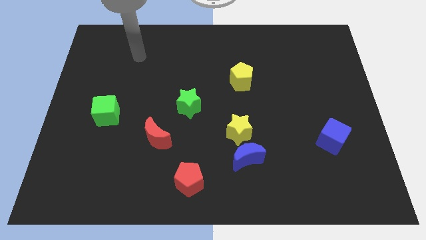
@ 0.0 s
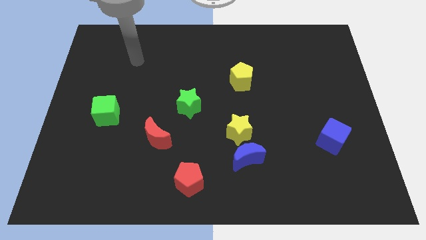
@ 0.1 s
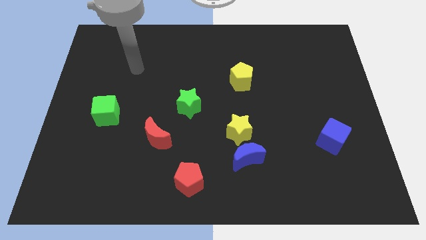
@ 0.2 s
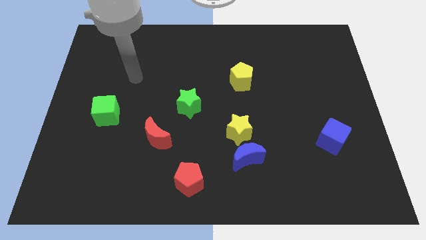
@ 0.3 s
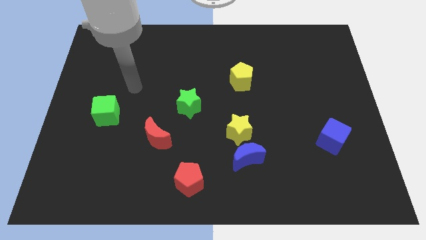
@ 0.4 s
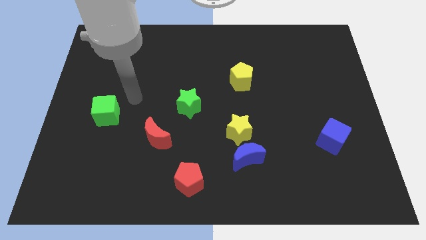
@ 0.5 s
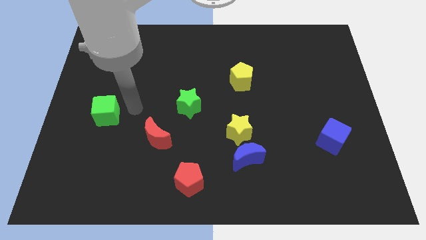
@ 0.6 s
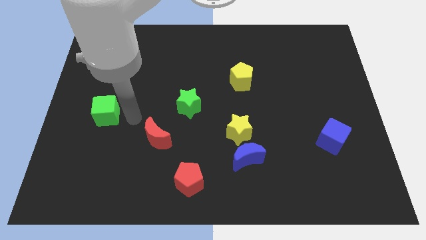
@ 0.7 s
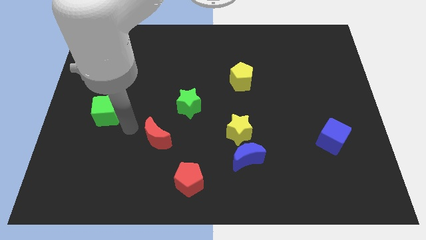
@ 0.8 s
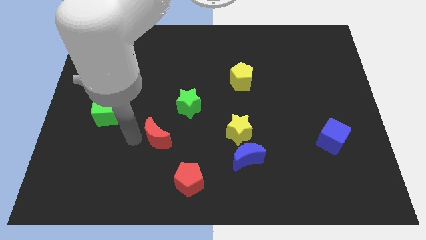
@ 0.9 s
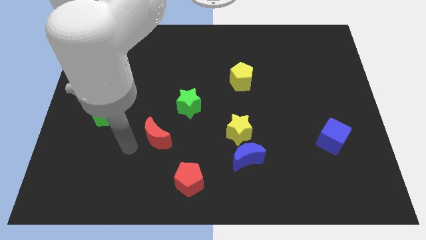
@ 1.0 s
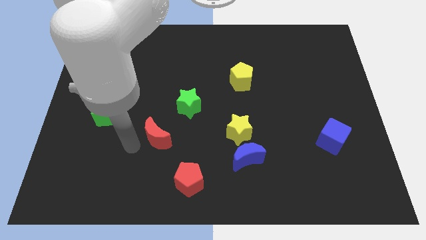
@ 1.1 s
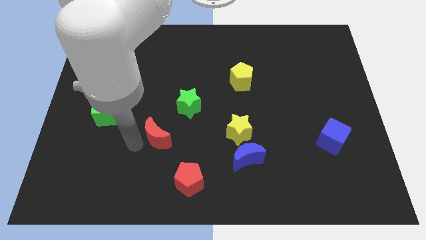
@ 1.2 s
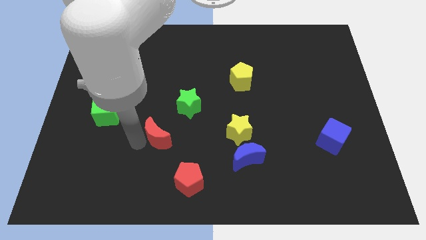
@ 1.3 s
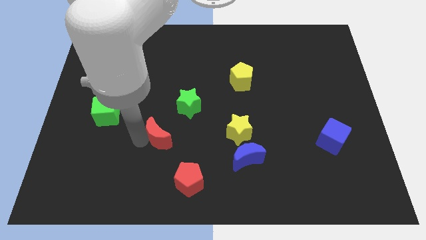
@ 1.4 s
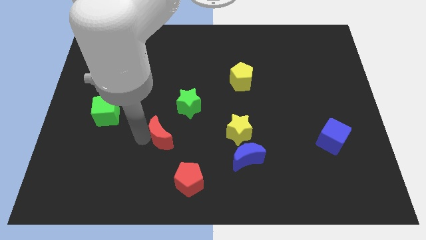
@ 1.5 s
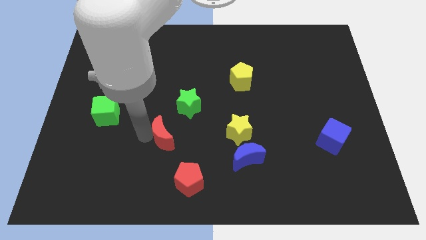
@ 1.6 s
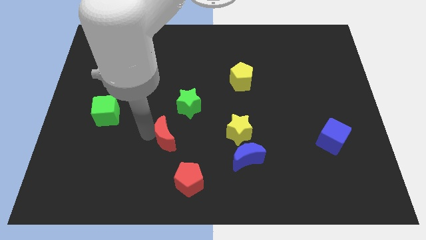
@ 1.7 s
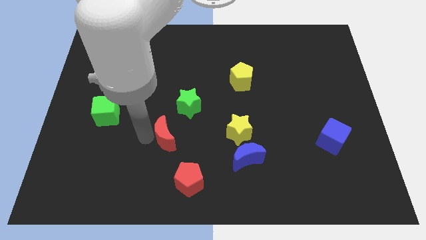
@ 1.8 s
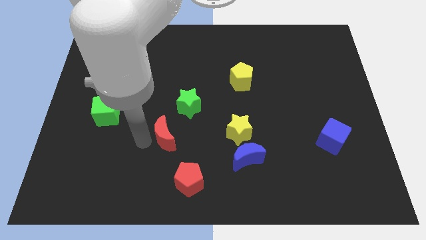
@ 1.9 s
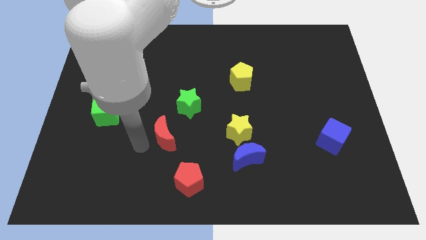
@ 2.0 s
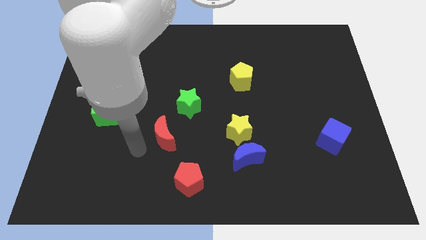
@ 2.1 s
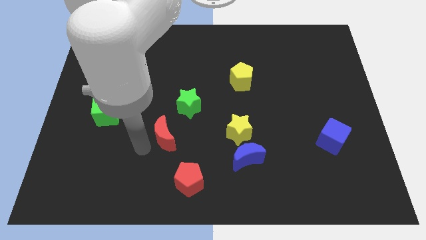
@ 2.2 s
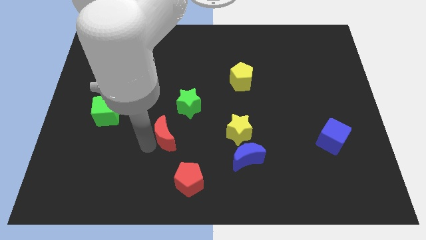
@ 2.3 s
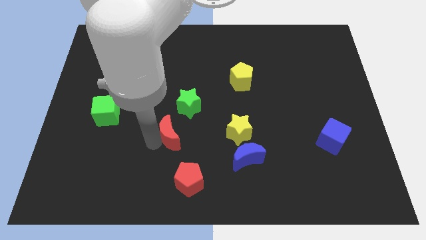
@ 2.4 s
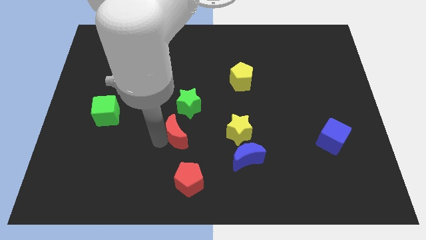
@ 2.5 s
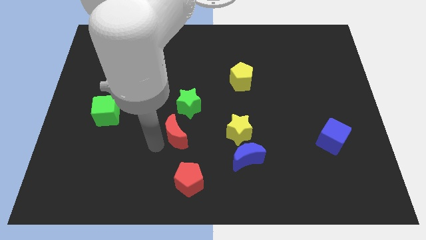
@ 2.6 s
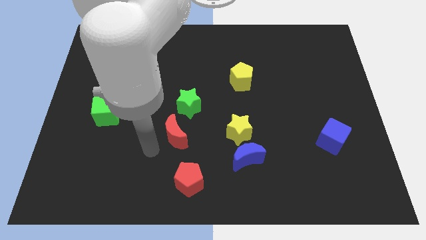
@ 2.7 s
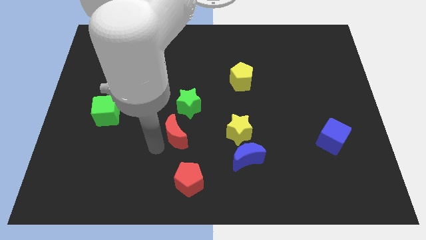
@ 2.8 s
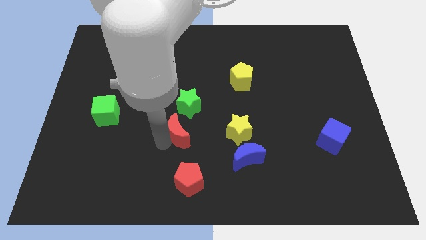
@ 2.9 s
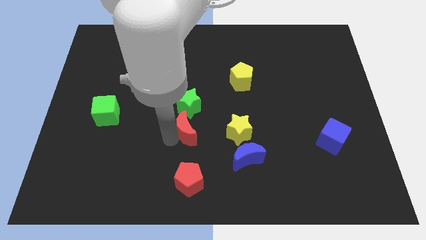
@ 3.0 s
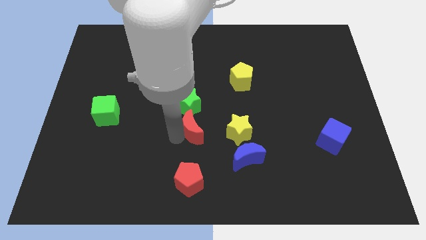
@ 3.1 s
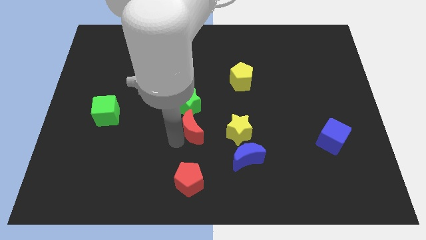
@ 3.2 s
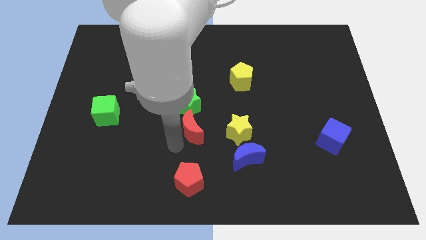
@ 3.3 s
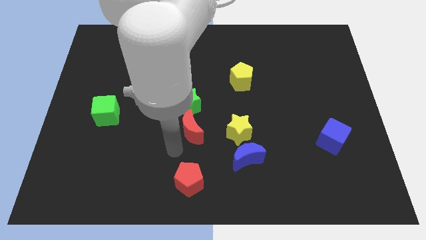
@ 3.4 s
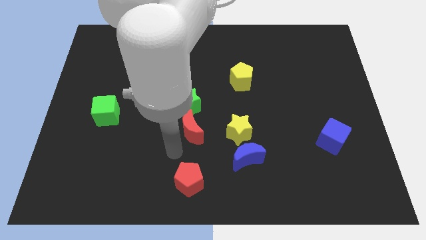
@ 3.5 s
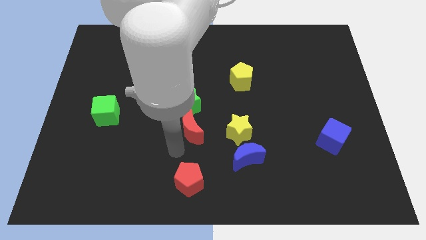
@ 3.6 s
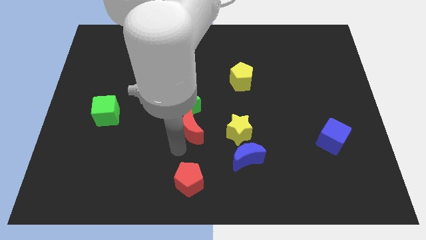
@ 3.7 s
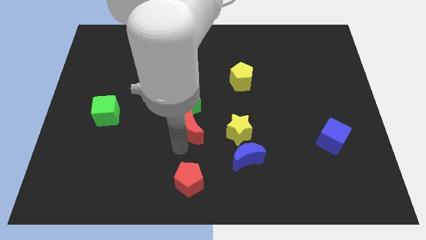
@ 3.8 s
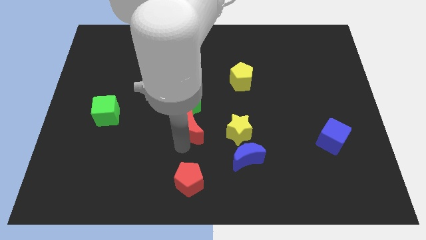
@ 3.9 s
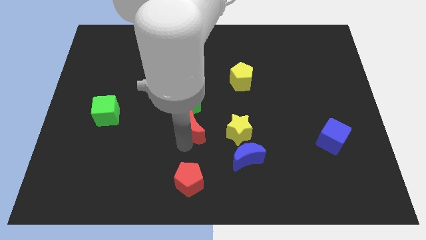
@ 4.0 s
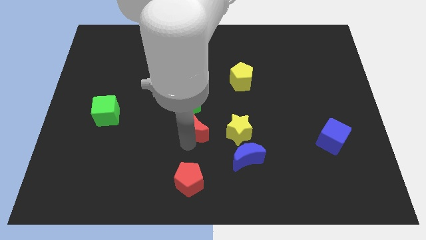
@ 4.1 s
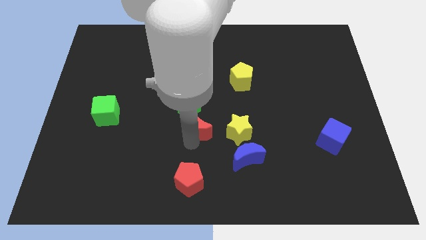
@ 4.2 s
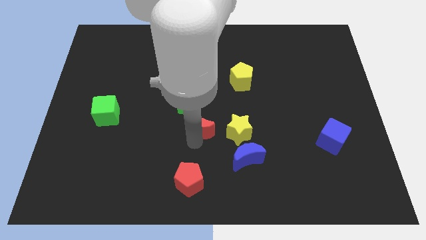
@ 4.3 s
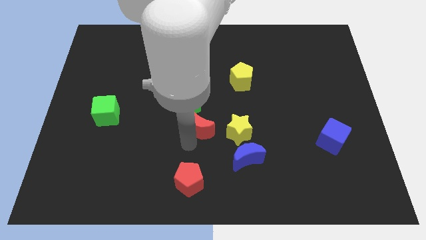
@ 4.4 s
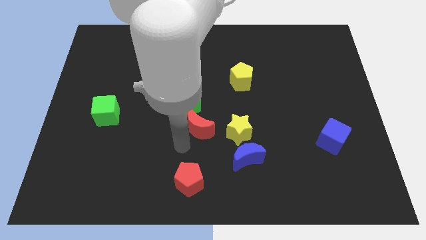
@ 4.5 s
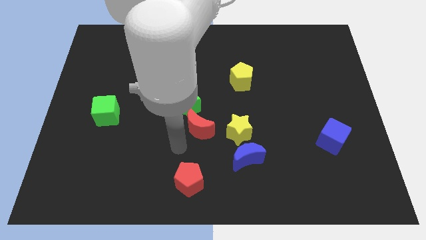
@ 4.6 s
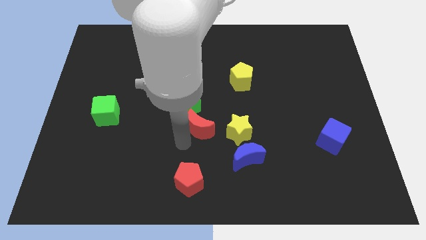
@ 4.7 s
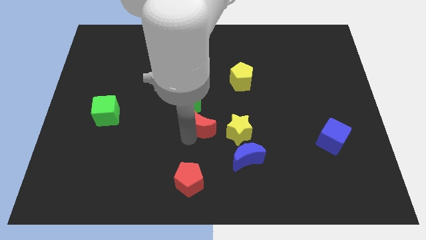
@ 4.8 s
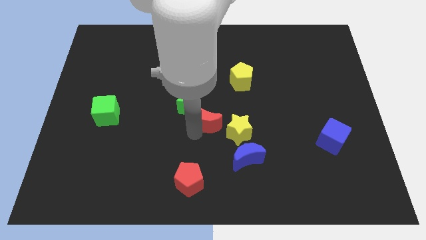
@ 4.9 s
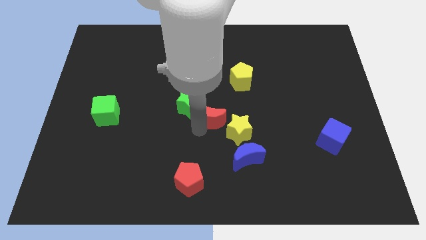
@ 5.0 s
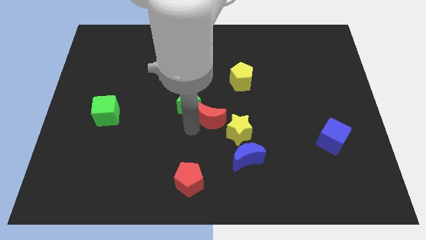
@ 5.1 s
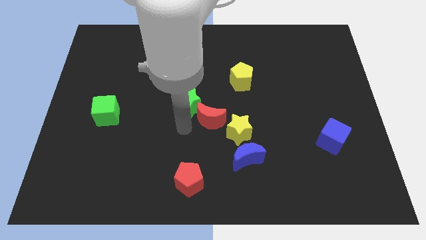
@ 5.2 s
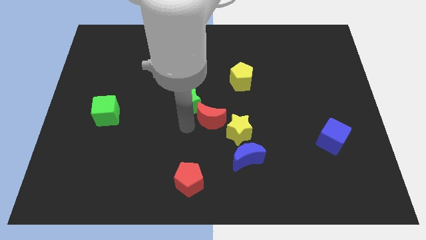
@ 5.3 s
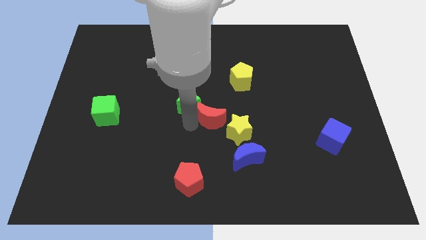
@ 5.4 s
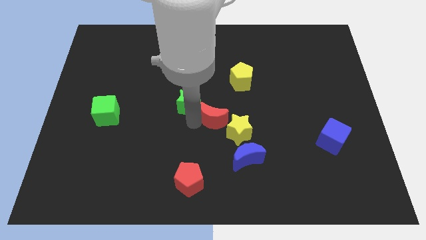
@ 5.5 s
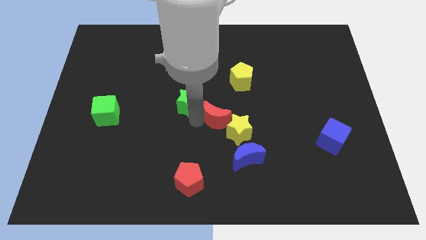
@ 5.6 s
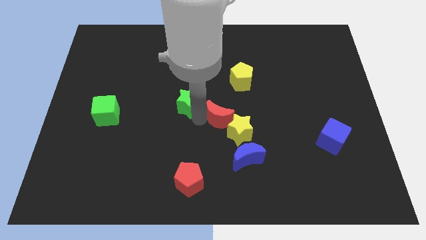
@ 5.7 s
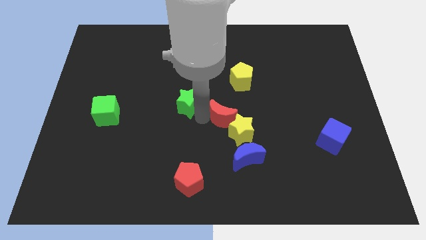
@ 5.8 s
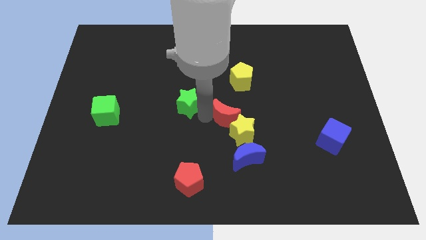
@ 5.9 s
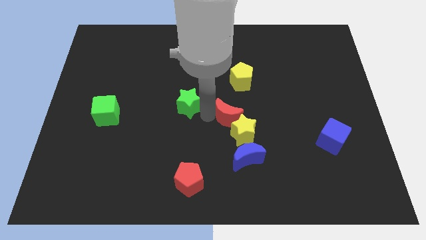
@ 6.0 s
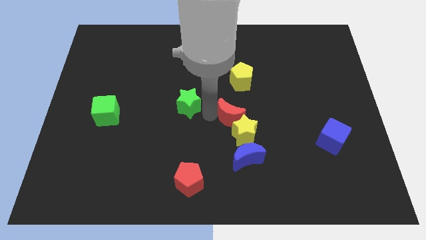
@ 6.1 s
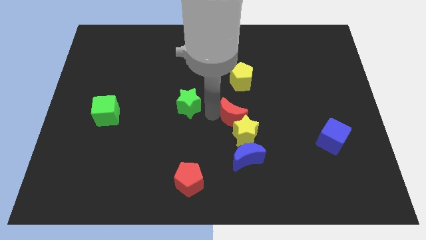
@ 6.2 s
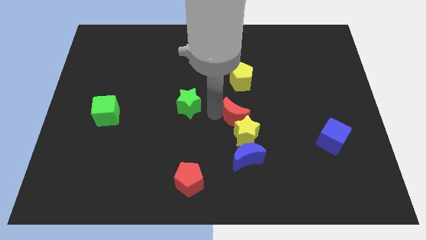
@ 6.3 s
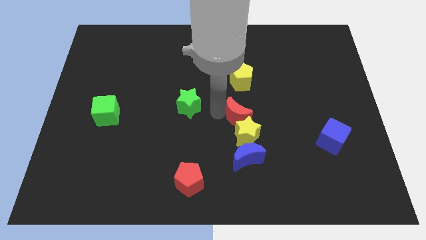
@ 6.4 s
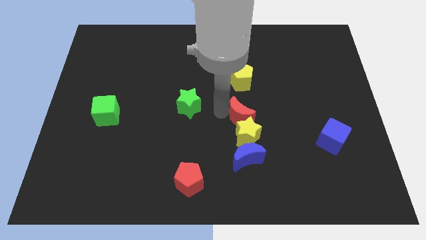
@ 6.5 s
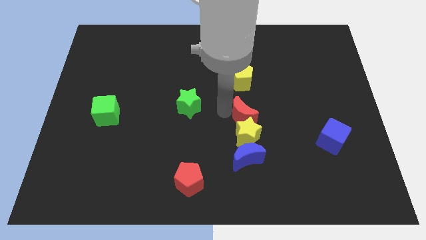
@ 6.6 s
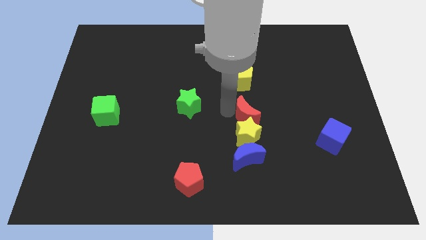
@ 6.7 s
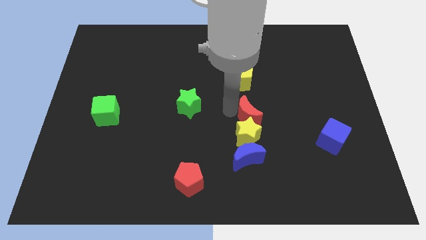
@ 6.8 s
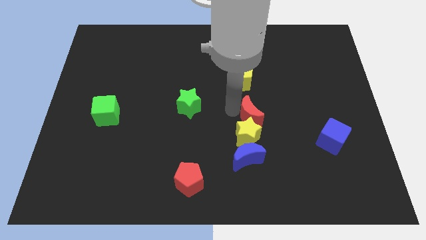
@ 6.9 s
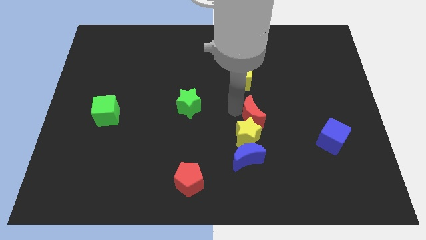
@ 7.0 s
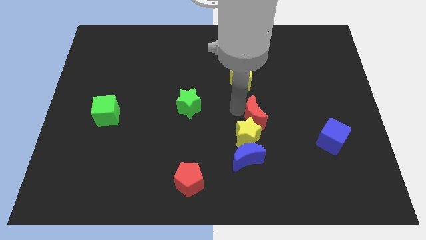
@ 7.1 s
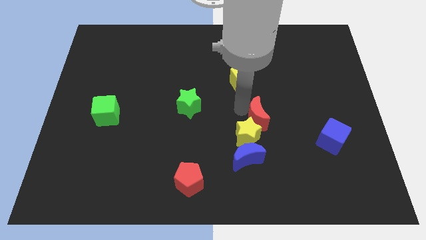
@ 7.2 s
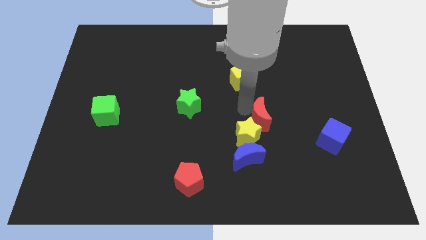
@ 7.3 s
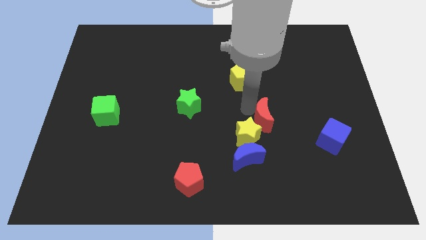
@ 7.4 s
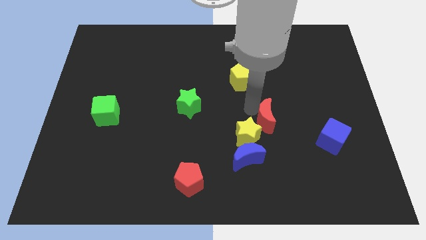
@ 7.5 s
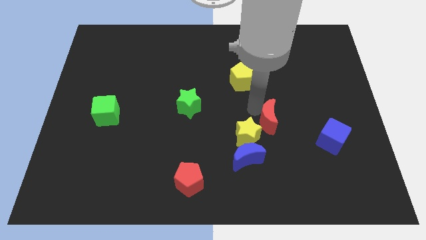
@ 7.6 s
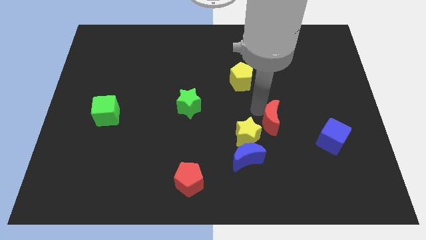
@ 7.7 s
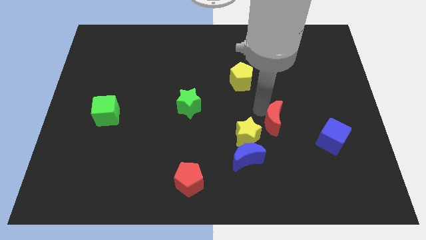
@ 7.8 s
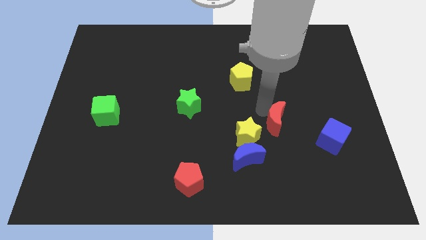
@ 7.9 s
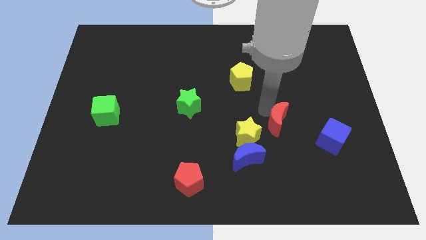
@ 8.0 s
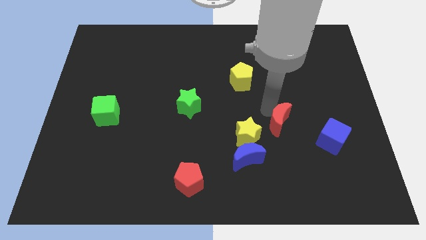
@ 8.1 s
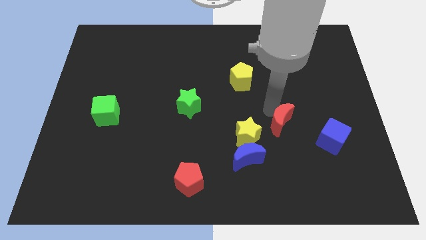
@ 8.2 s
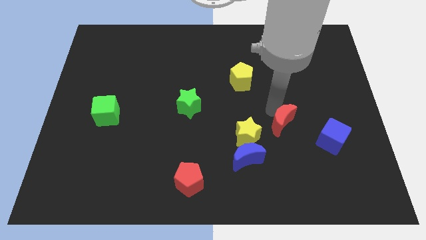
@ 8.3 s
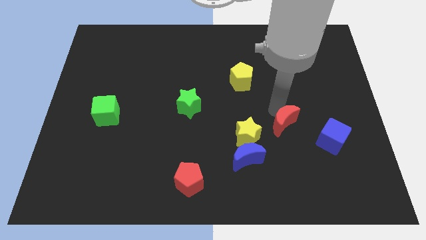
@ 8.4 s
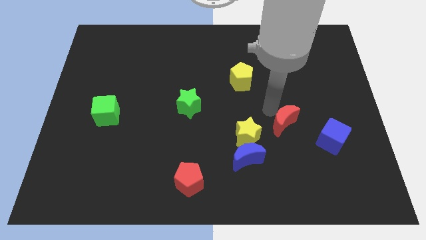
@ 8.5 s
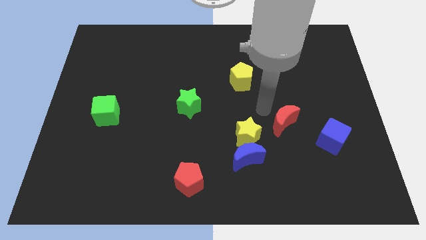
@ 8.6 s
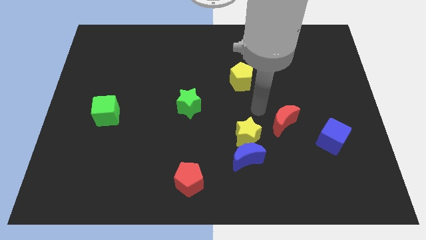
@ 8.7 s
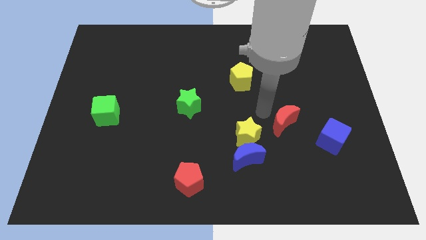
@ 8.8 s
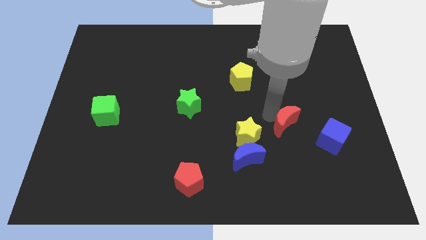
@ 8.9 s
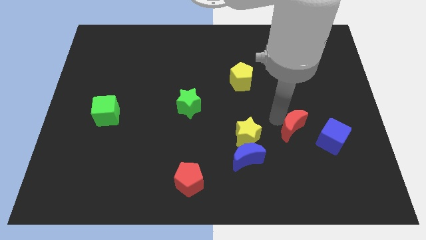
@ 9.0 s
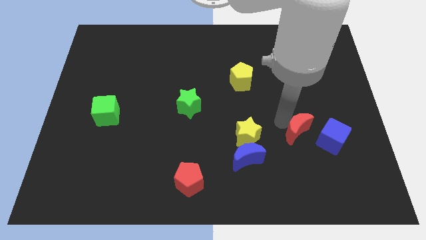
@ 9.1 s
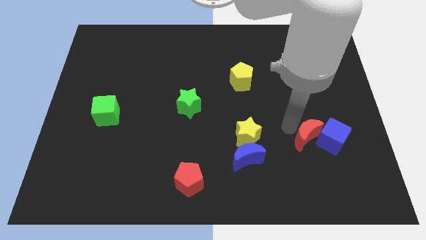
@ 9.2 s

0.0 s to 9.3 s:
move the red moon close to the blue cube
